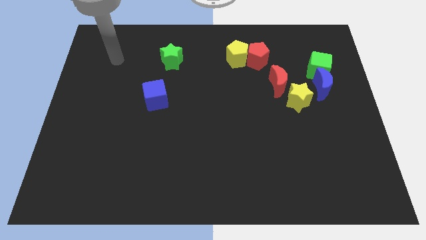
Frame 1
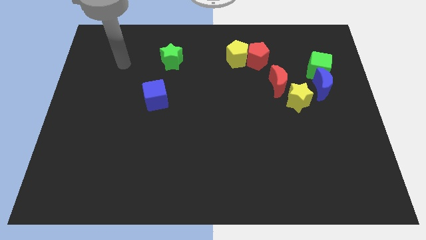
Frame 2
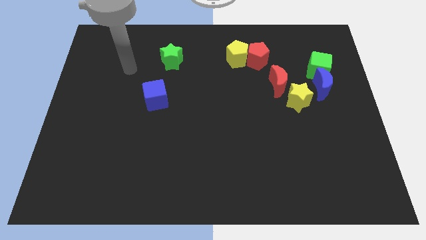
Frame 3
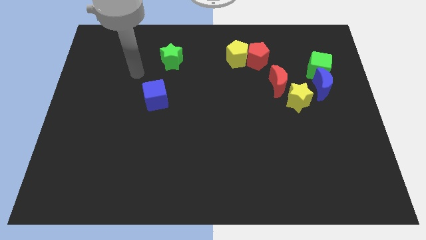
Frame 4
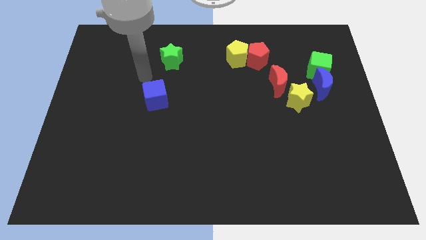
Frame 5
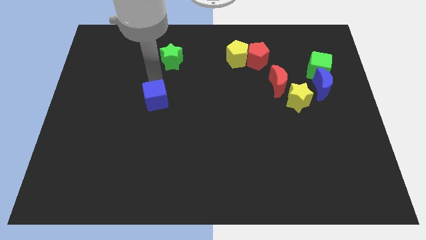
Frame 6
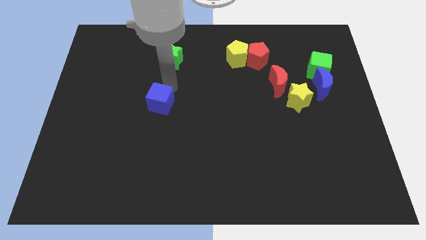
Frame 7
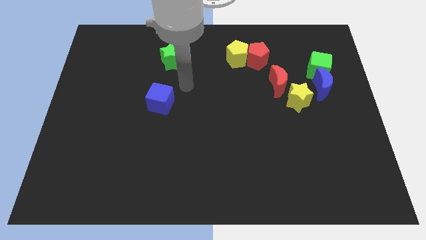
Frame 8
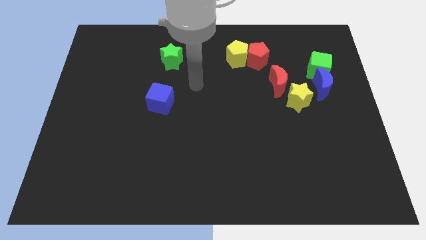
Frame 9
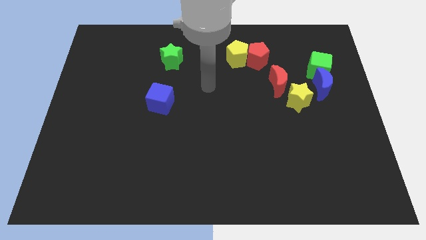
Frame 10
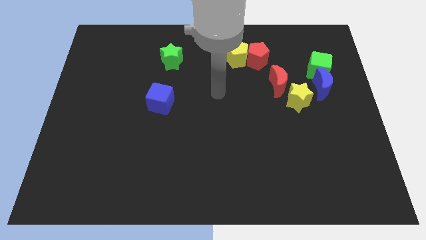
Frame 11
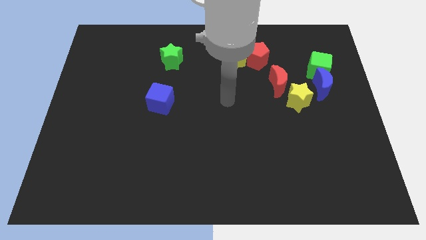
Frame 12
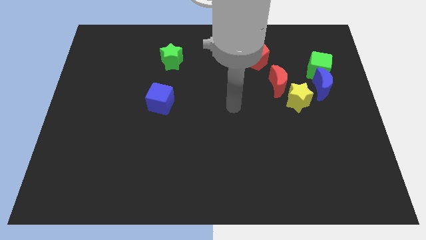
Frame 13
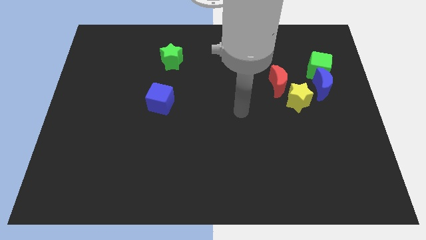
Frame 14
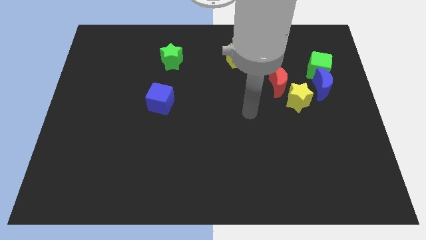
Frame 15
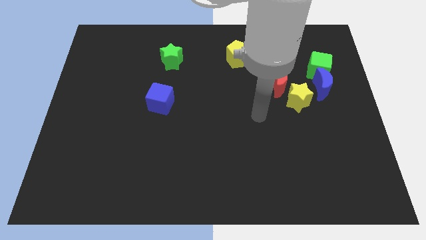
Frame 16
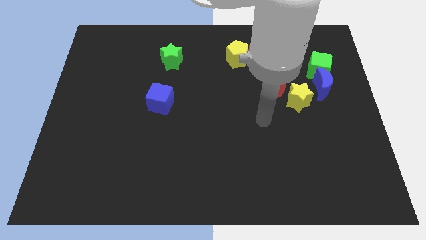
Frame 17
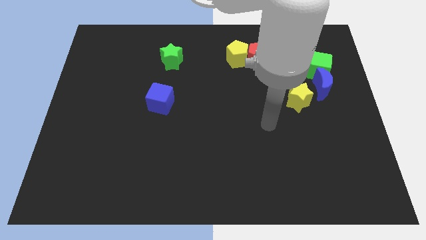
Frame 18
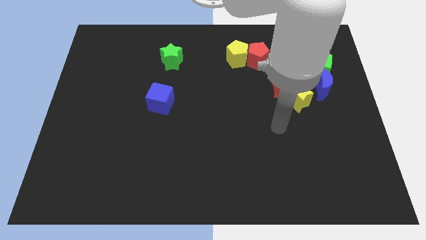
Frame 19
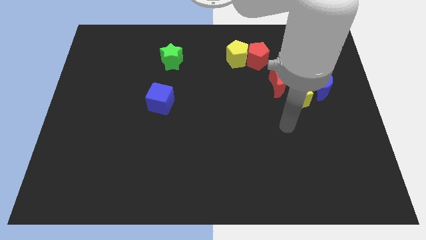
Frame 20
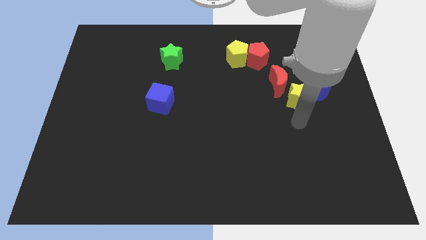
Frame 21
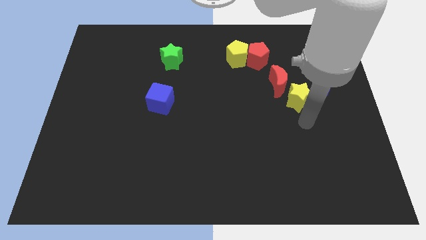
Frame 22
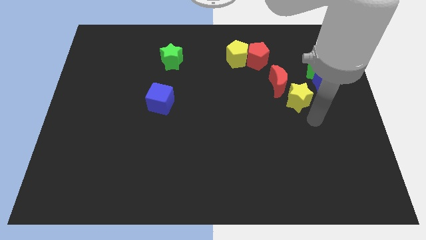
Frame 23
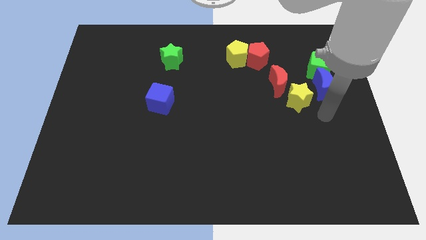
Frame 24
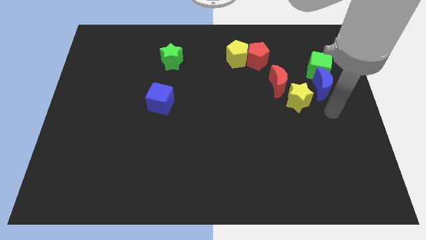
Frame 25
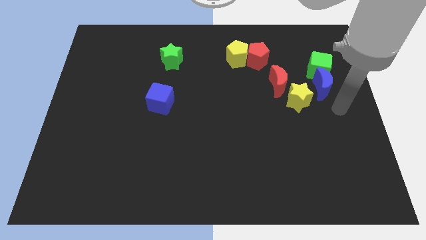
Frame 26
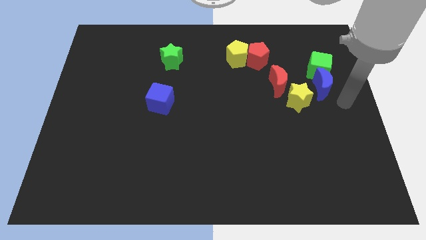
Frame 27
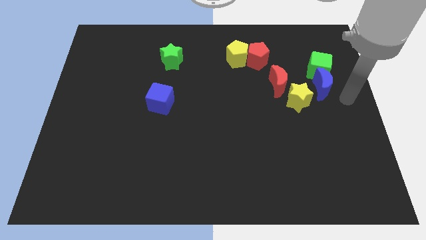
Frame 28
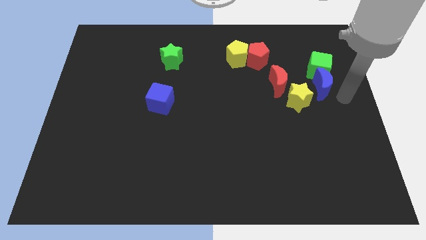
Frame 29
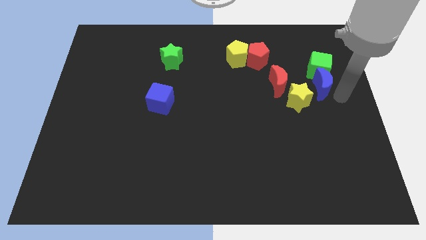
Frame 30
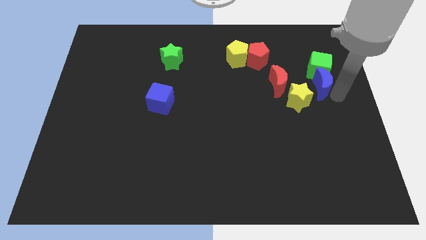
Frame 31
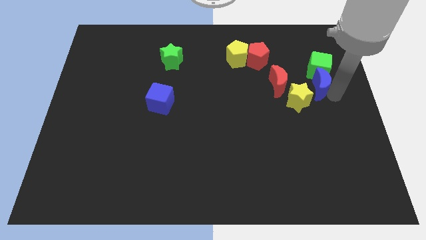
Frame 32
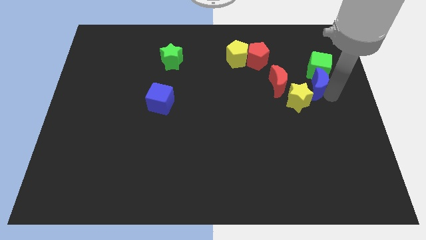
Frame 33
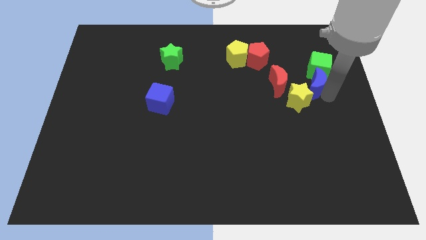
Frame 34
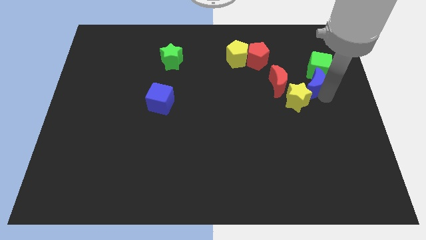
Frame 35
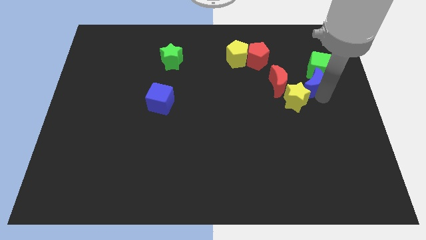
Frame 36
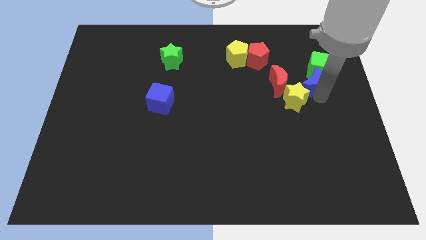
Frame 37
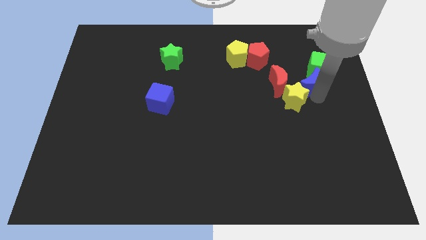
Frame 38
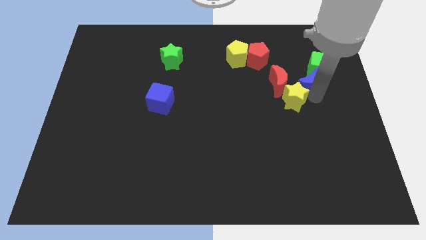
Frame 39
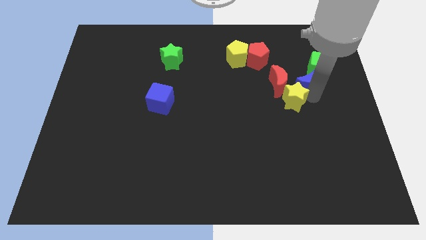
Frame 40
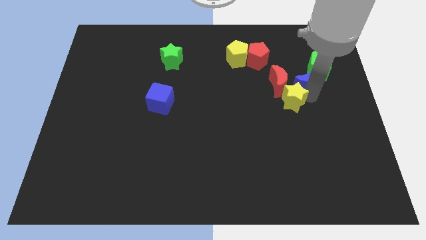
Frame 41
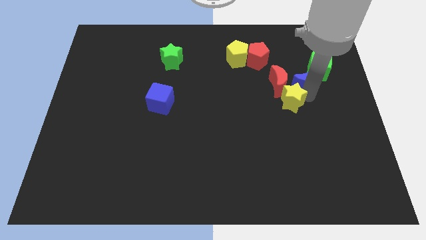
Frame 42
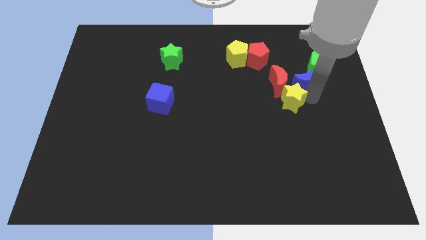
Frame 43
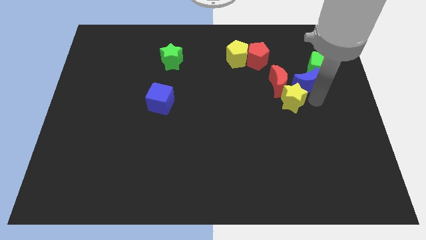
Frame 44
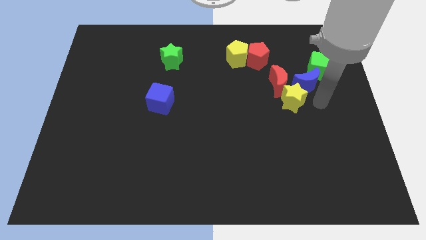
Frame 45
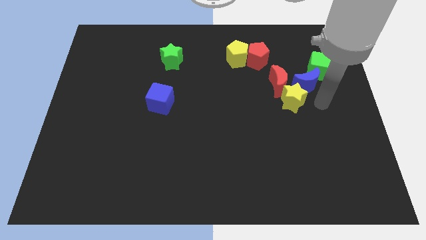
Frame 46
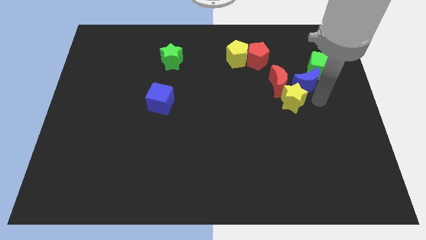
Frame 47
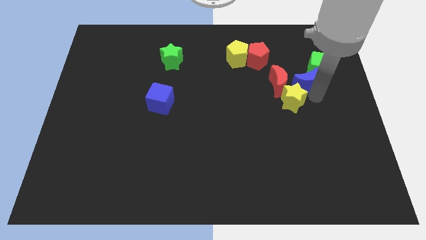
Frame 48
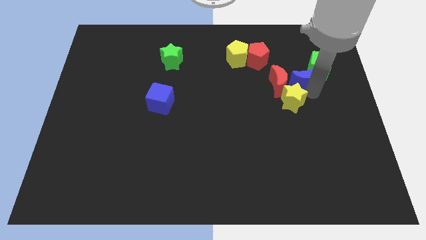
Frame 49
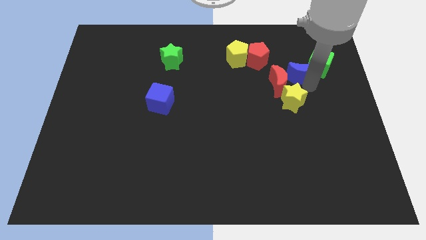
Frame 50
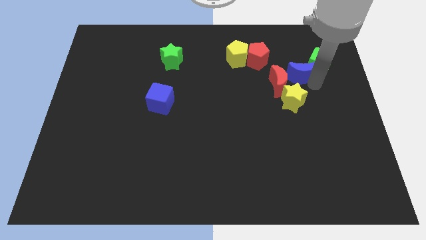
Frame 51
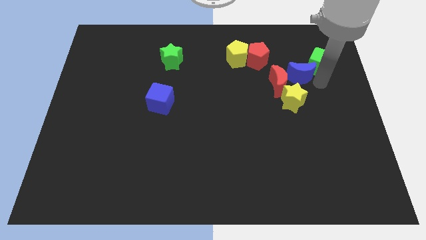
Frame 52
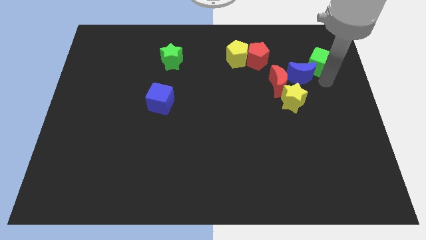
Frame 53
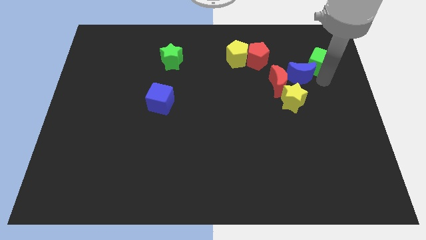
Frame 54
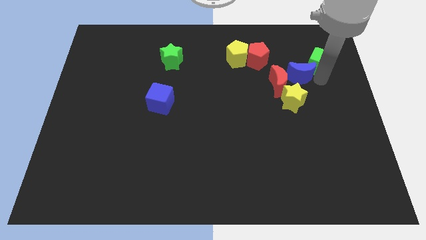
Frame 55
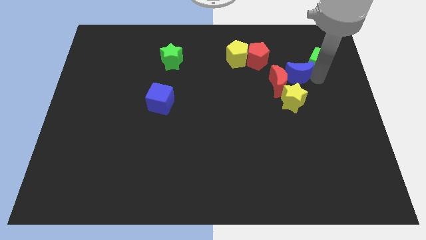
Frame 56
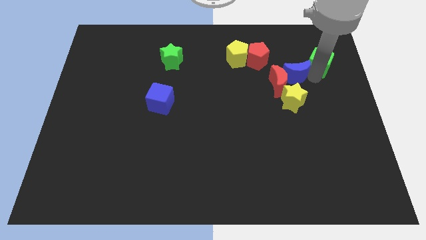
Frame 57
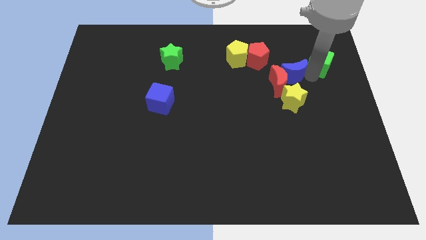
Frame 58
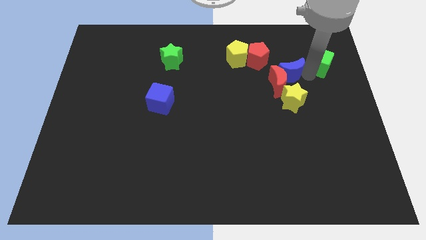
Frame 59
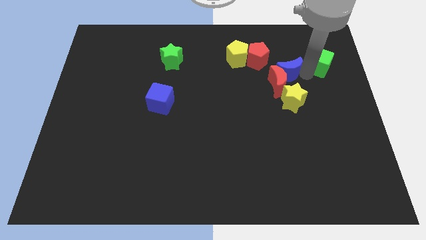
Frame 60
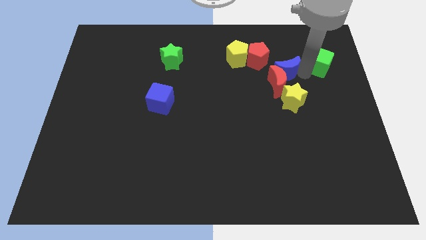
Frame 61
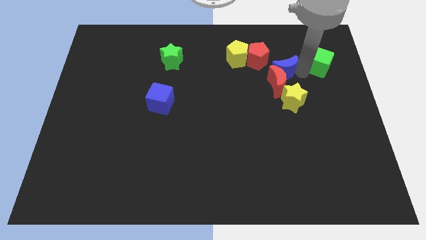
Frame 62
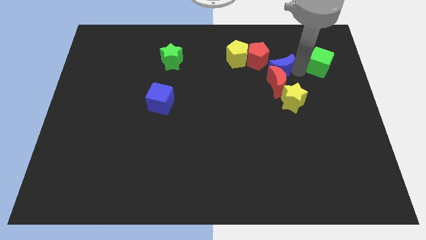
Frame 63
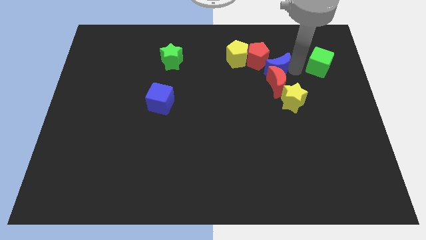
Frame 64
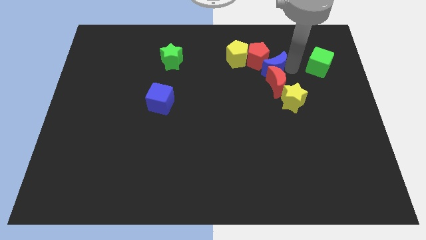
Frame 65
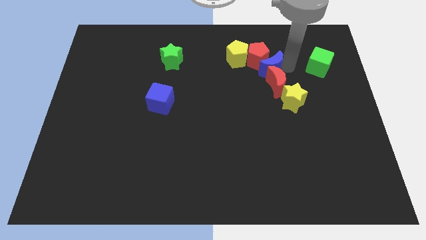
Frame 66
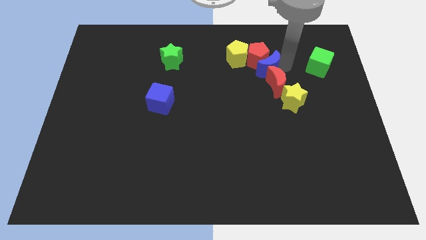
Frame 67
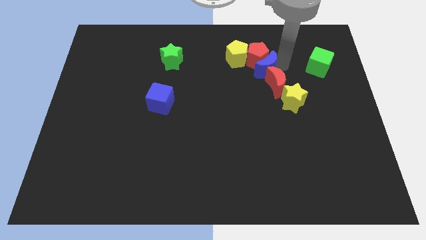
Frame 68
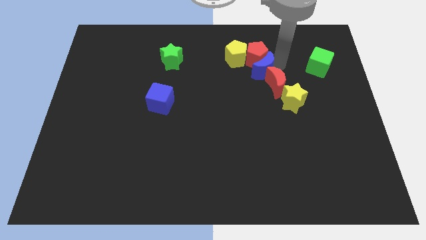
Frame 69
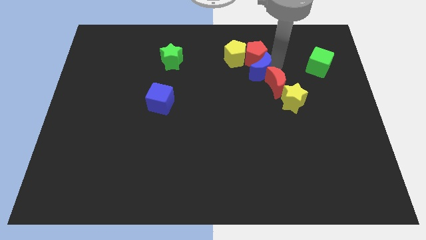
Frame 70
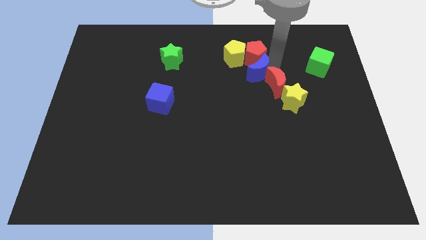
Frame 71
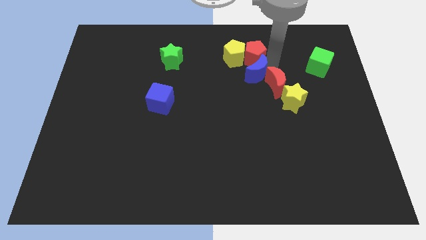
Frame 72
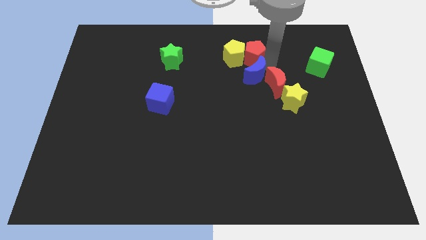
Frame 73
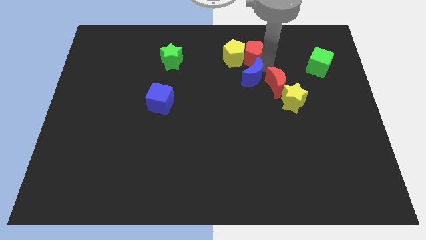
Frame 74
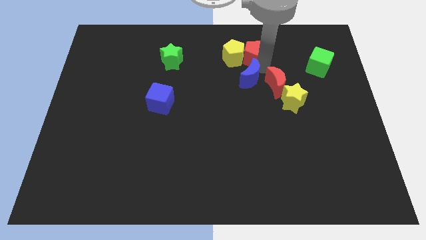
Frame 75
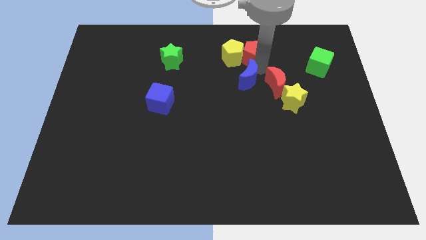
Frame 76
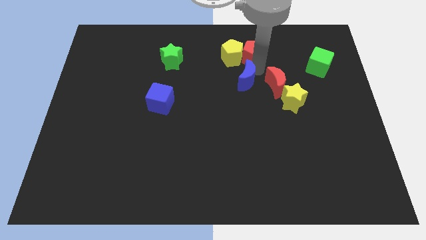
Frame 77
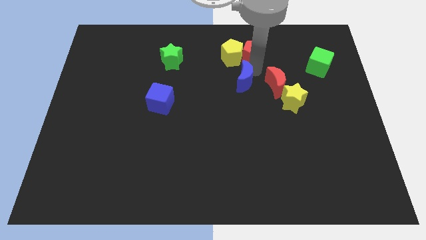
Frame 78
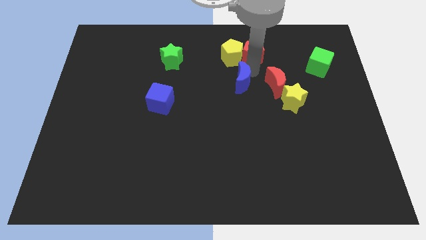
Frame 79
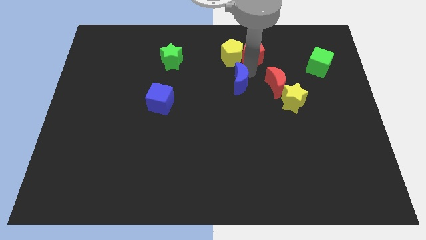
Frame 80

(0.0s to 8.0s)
push the blue moon left

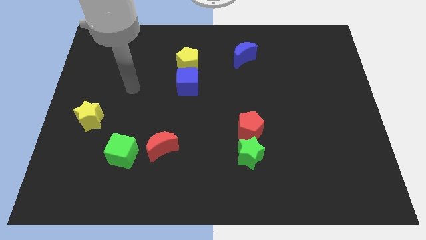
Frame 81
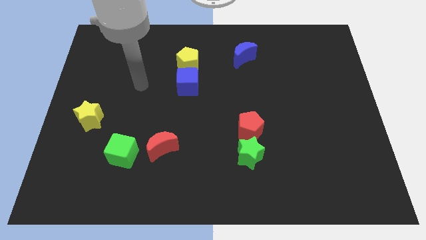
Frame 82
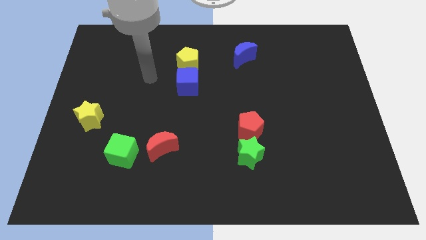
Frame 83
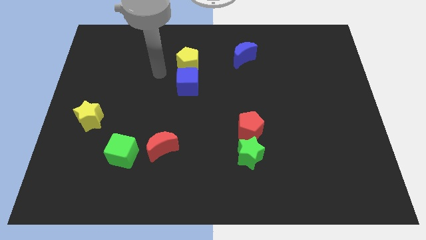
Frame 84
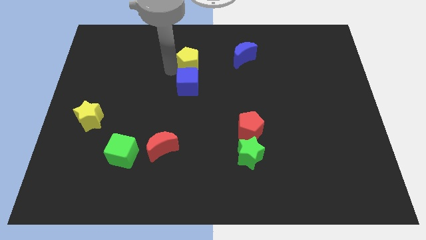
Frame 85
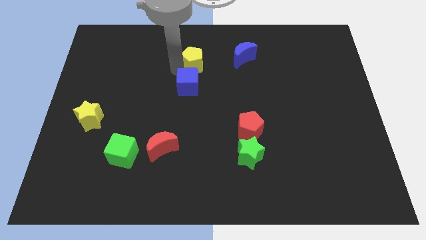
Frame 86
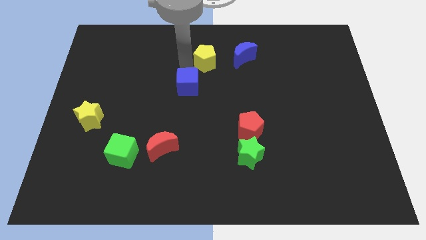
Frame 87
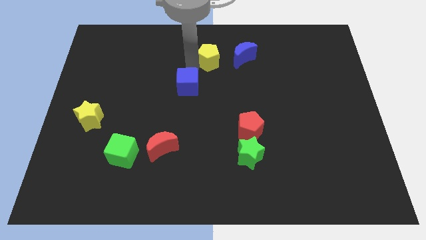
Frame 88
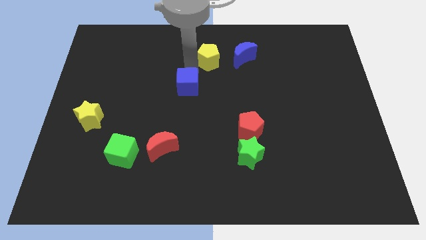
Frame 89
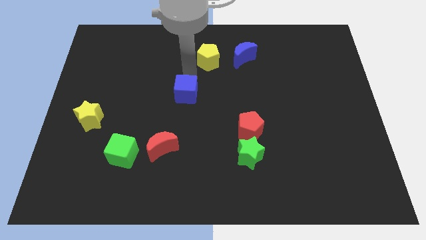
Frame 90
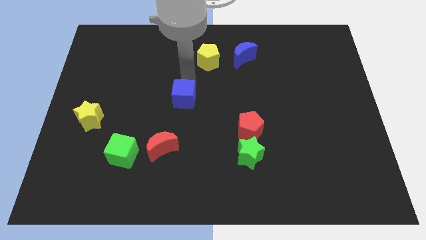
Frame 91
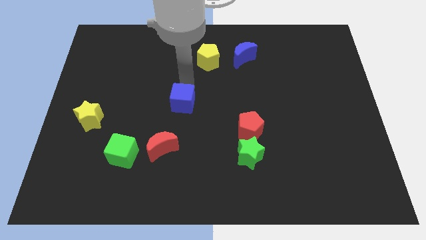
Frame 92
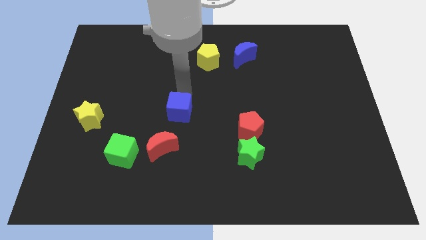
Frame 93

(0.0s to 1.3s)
slide the blue cube somewhat downwards
